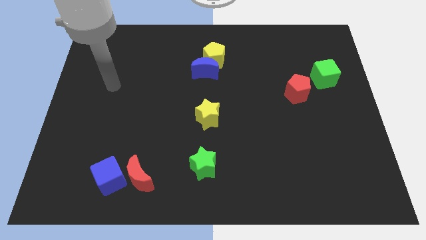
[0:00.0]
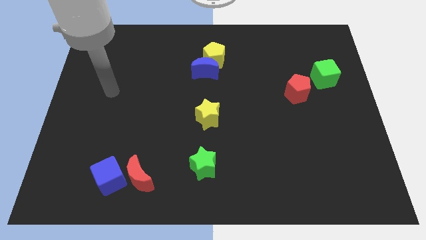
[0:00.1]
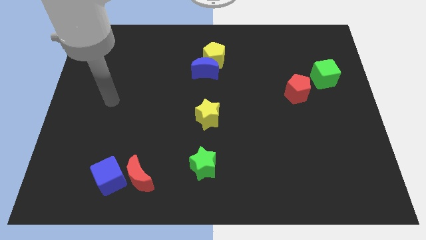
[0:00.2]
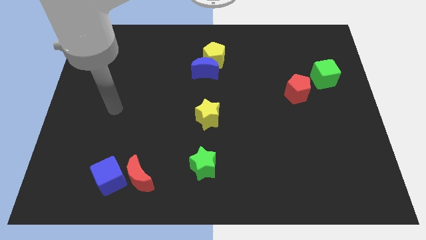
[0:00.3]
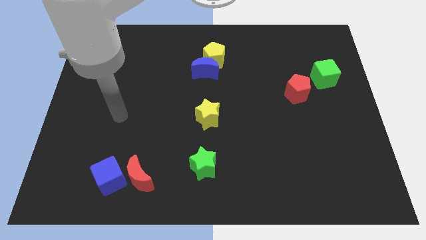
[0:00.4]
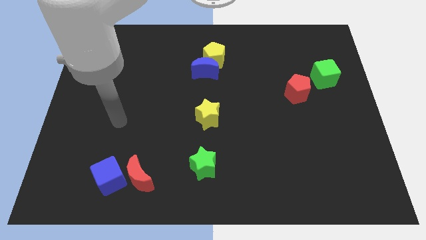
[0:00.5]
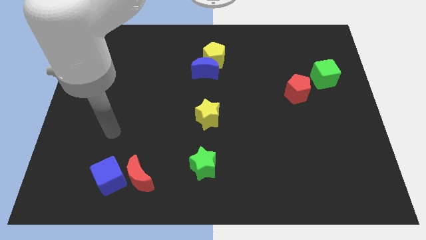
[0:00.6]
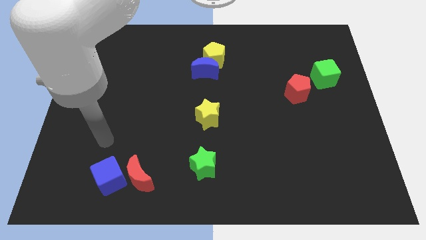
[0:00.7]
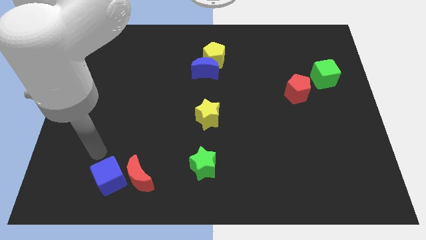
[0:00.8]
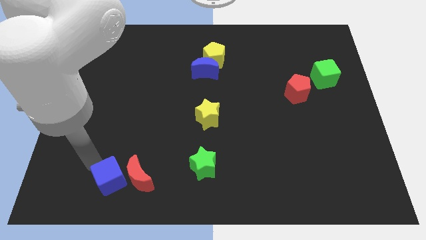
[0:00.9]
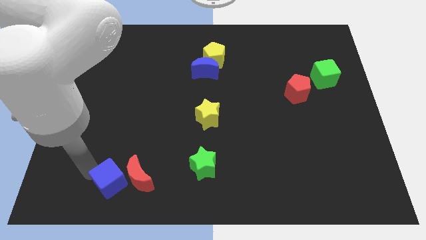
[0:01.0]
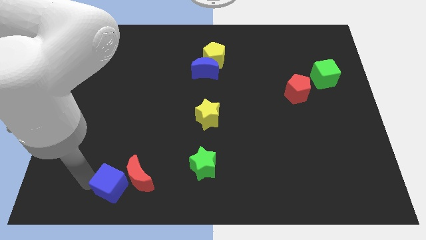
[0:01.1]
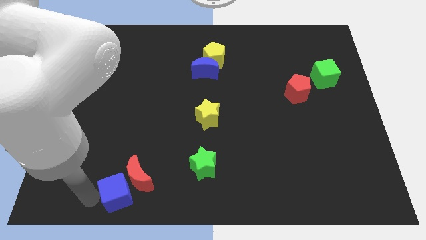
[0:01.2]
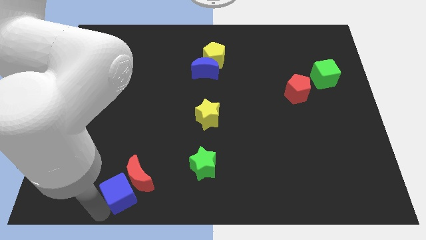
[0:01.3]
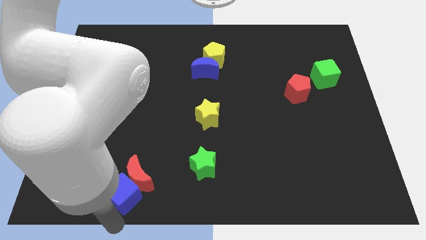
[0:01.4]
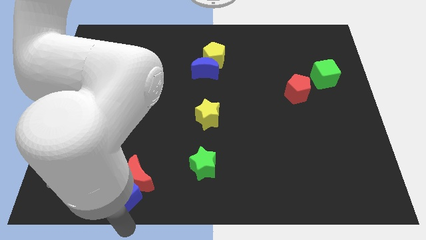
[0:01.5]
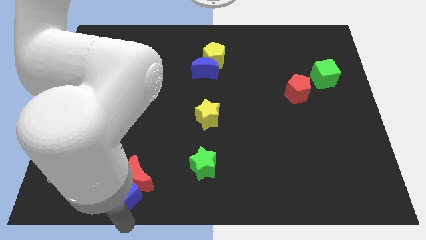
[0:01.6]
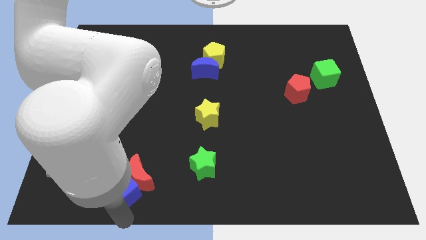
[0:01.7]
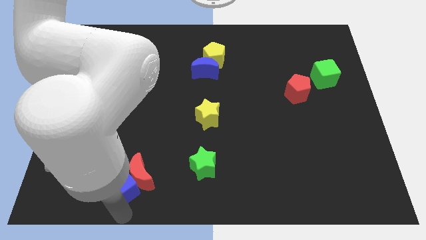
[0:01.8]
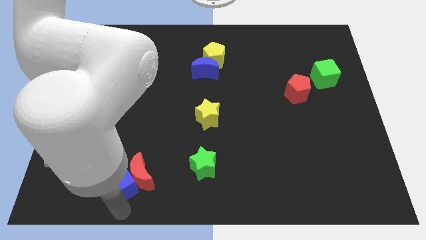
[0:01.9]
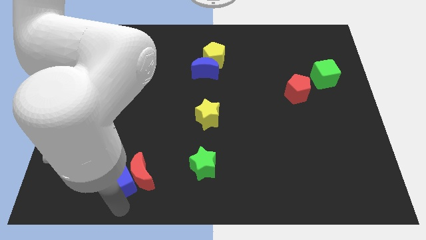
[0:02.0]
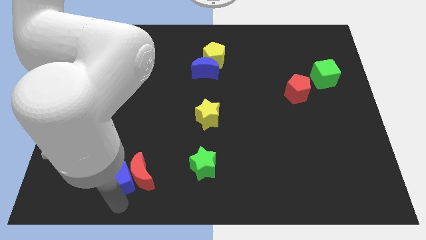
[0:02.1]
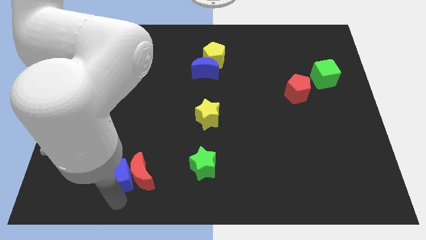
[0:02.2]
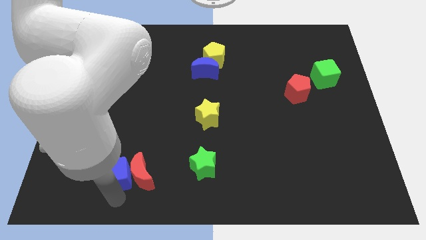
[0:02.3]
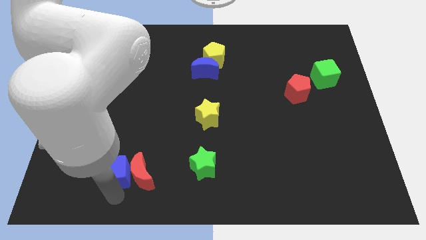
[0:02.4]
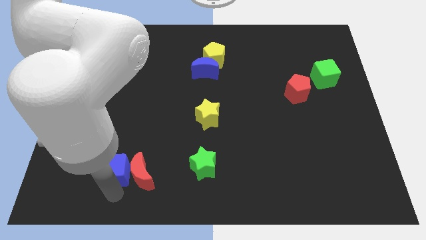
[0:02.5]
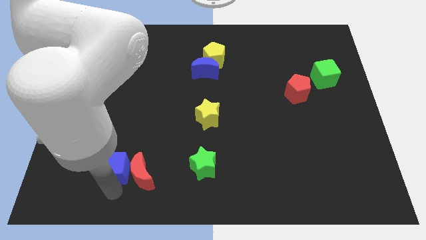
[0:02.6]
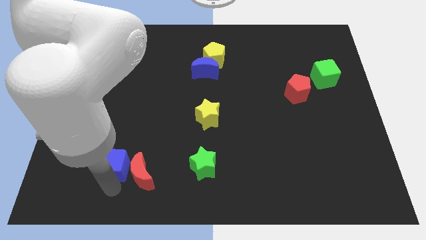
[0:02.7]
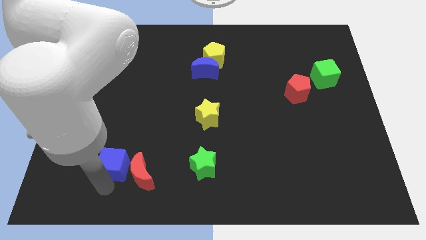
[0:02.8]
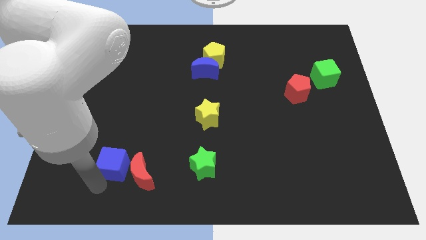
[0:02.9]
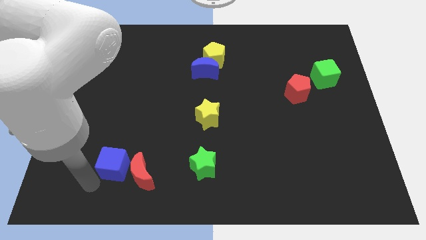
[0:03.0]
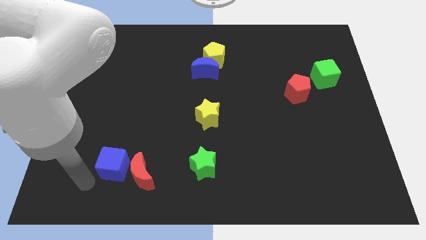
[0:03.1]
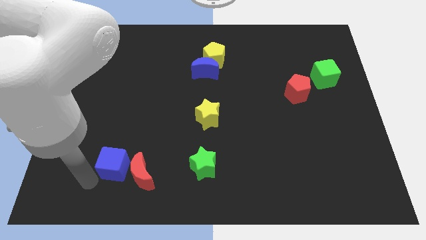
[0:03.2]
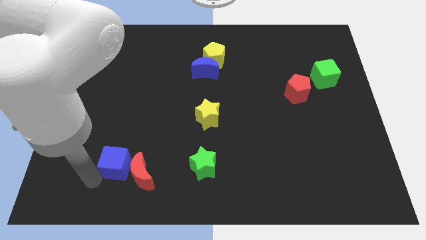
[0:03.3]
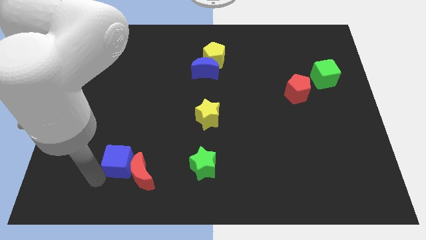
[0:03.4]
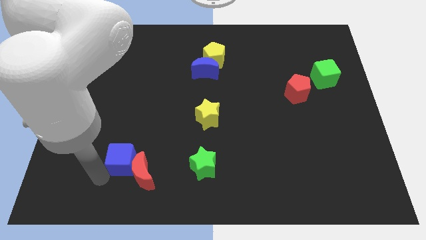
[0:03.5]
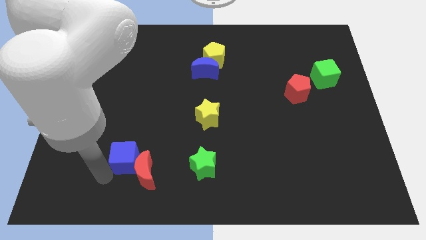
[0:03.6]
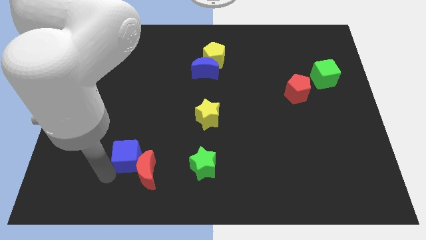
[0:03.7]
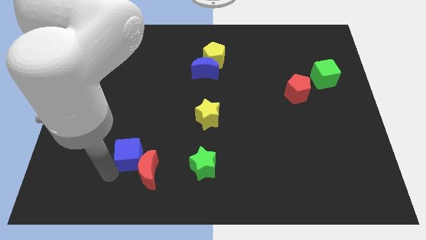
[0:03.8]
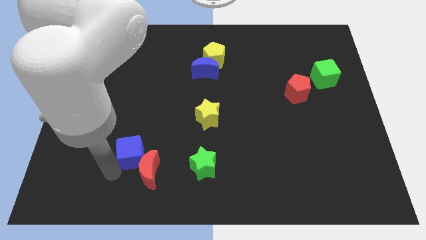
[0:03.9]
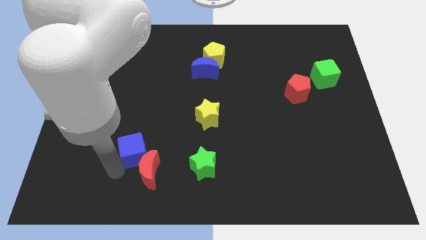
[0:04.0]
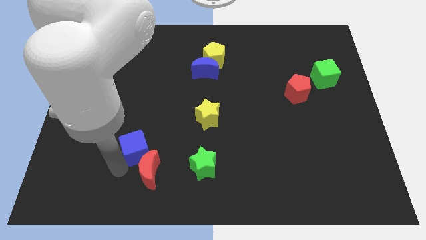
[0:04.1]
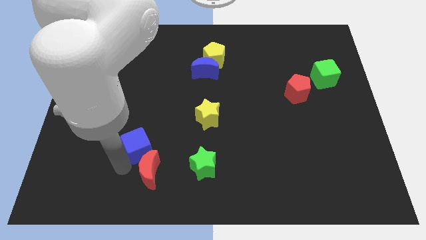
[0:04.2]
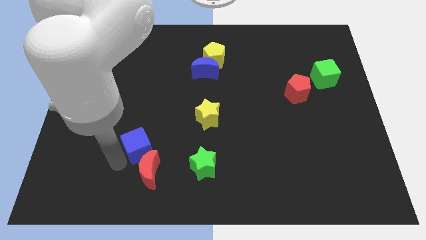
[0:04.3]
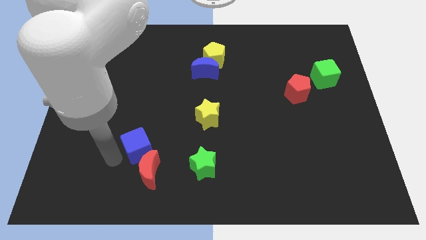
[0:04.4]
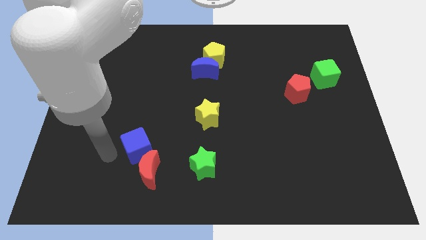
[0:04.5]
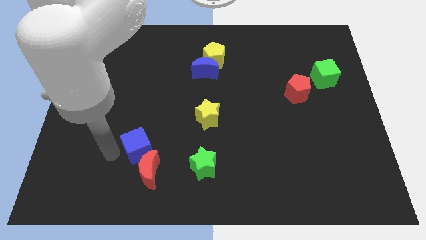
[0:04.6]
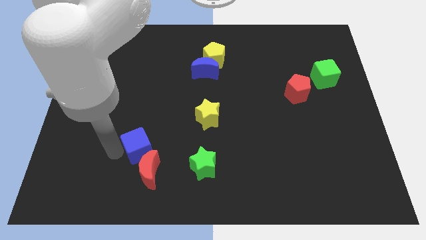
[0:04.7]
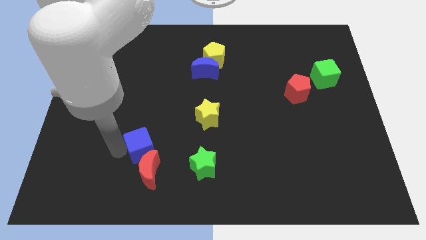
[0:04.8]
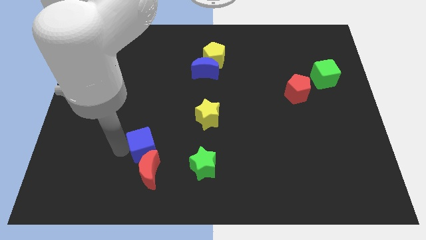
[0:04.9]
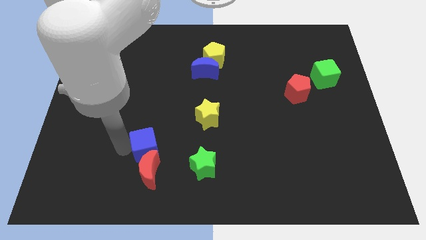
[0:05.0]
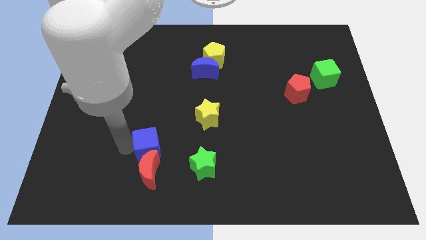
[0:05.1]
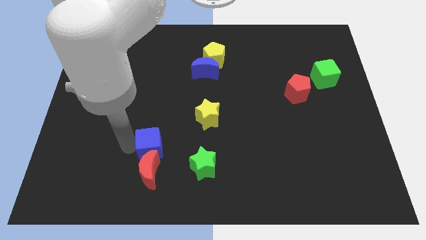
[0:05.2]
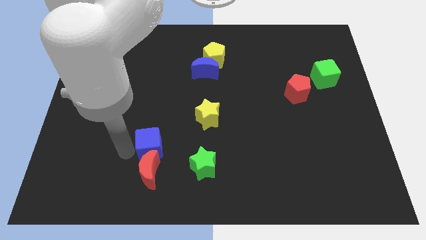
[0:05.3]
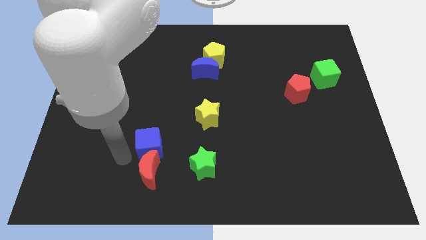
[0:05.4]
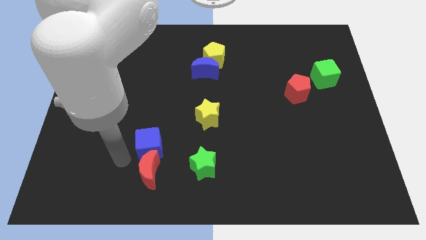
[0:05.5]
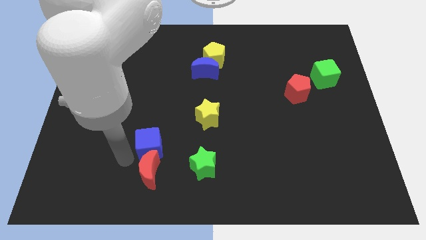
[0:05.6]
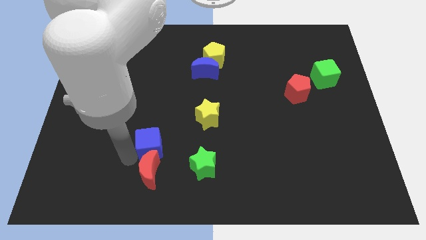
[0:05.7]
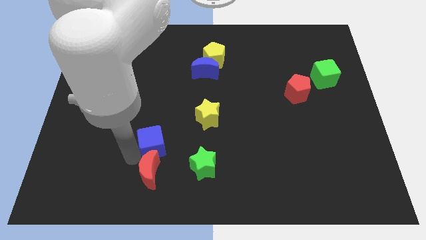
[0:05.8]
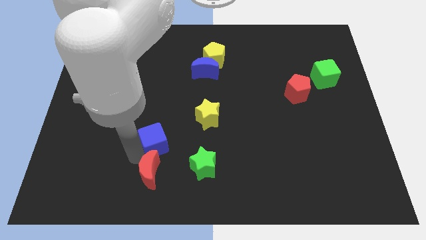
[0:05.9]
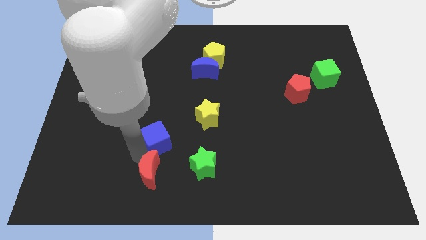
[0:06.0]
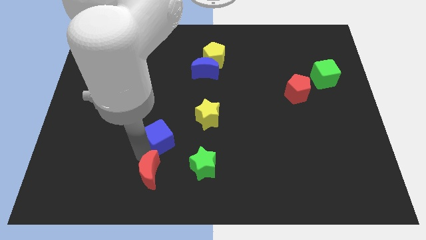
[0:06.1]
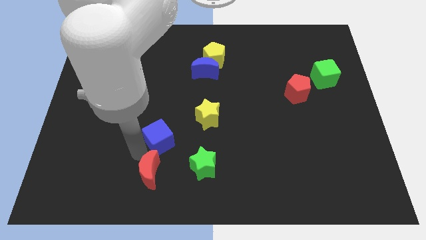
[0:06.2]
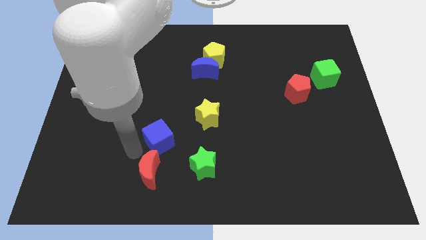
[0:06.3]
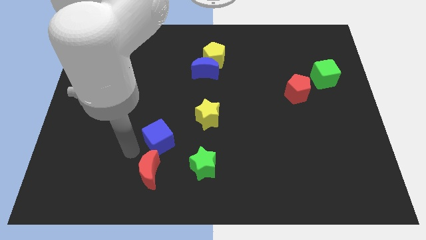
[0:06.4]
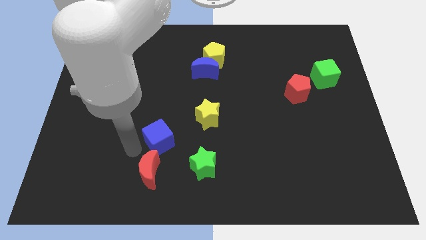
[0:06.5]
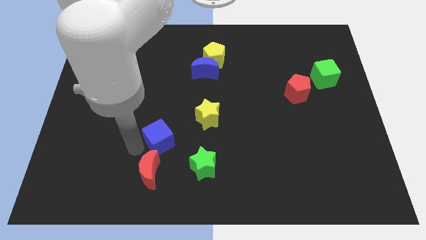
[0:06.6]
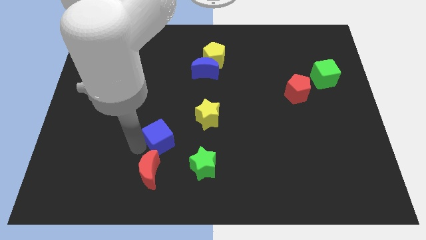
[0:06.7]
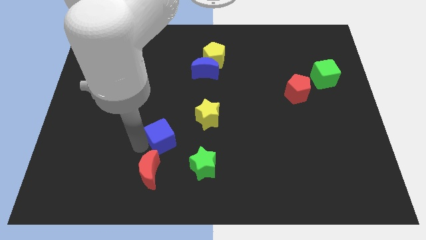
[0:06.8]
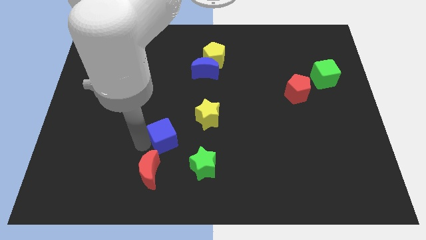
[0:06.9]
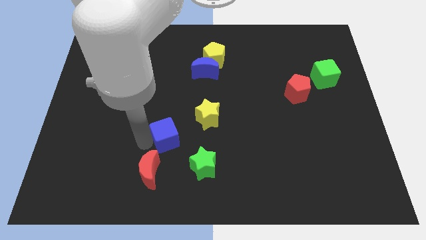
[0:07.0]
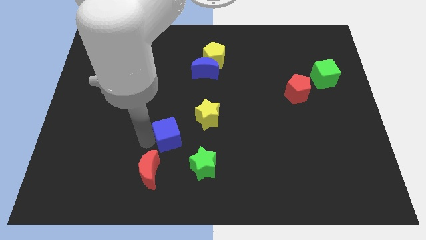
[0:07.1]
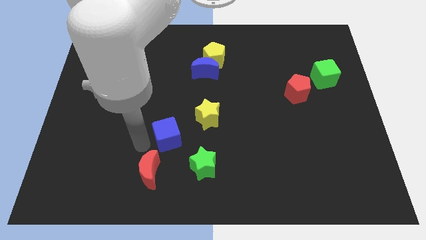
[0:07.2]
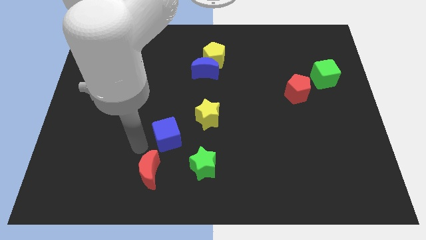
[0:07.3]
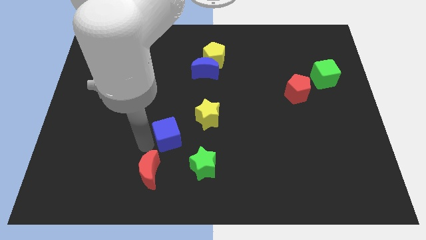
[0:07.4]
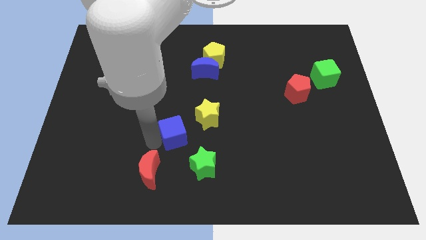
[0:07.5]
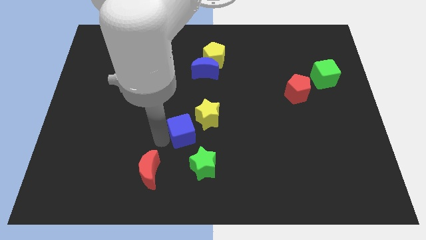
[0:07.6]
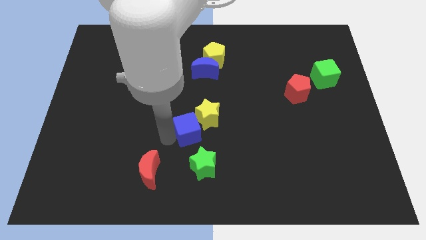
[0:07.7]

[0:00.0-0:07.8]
push the blue cube to the yellow star
